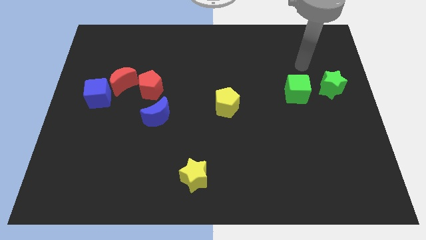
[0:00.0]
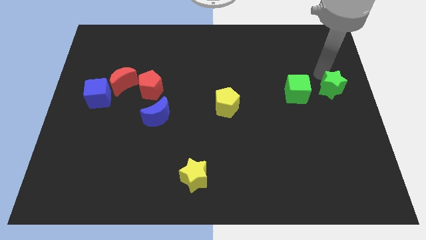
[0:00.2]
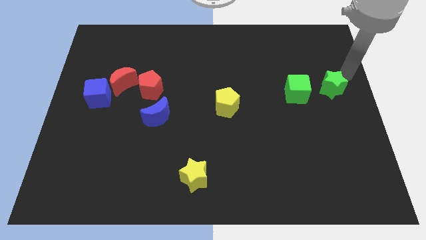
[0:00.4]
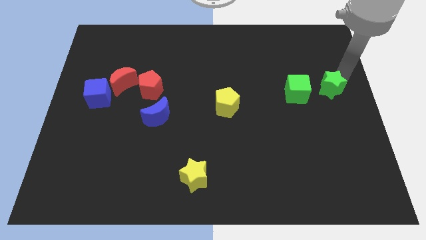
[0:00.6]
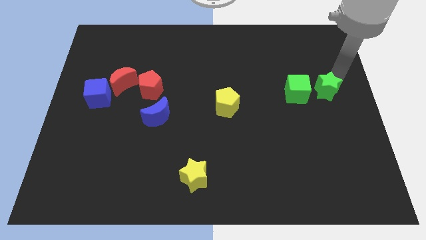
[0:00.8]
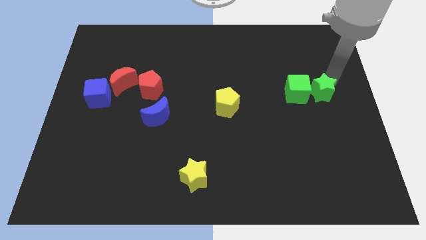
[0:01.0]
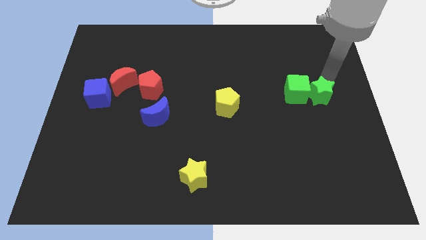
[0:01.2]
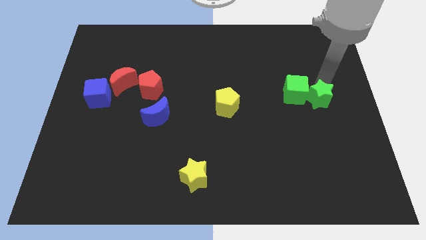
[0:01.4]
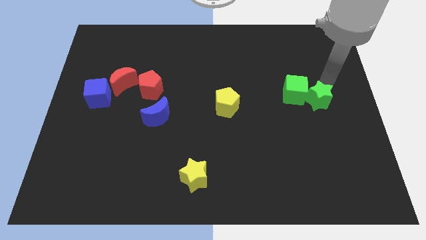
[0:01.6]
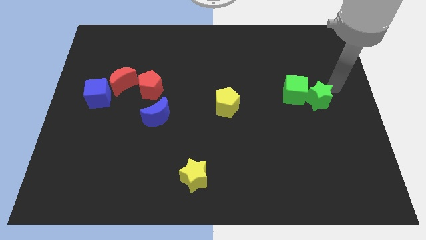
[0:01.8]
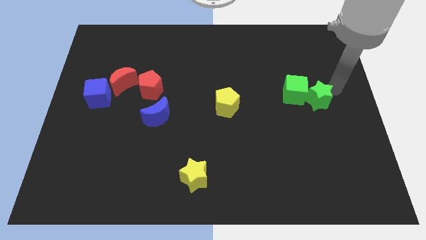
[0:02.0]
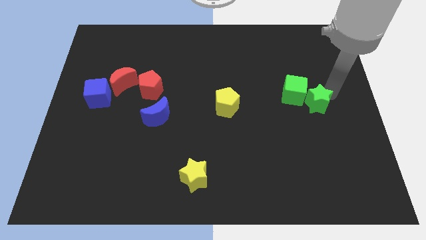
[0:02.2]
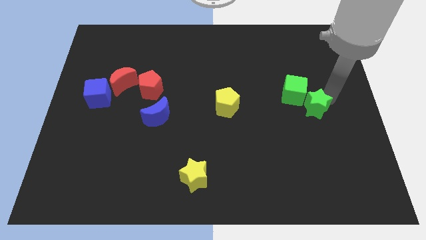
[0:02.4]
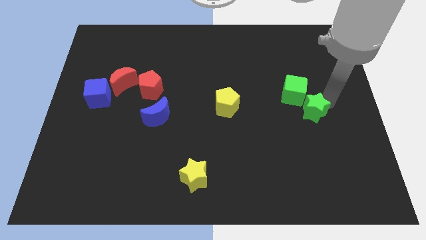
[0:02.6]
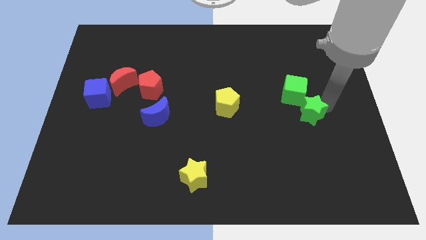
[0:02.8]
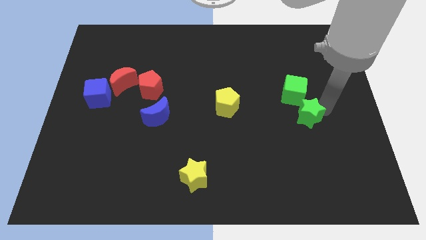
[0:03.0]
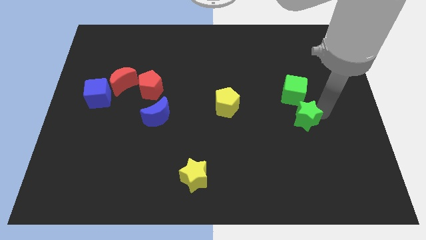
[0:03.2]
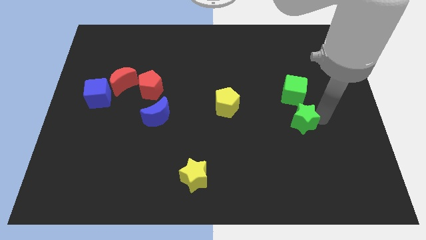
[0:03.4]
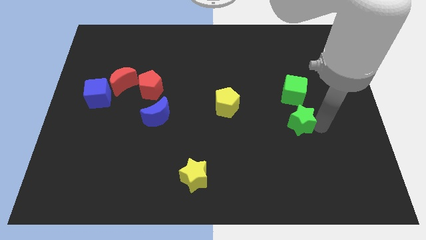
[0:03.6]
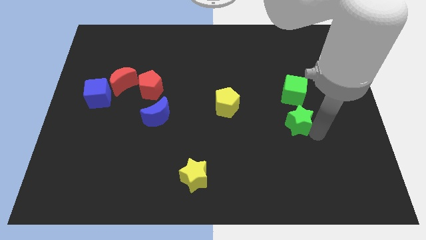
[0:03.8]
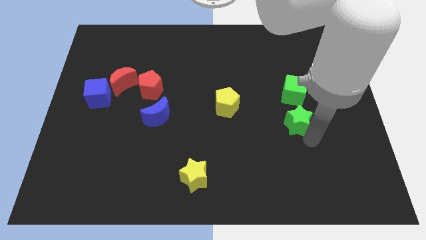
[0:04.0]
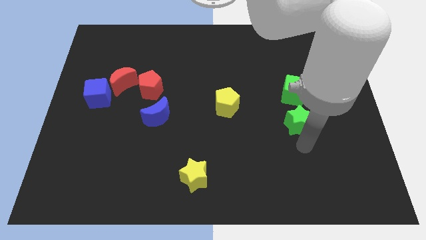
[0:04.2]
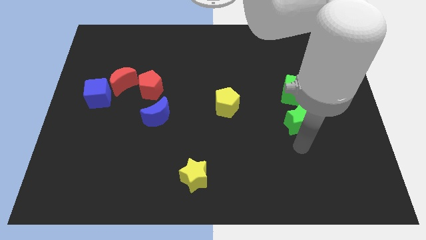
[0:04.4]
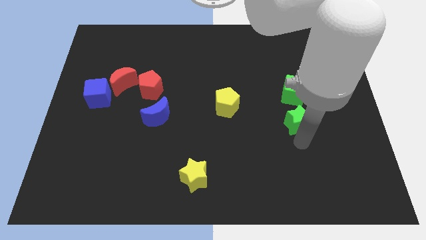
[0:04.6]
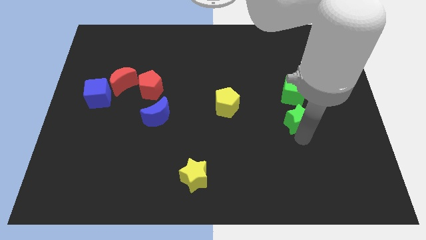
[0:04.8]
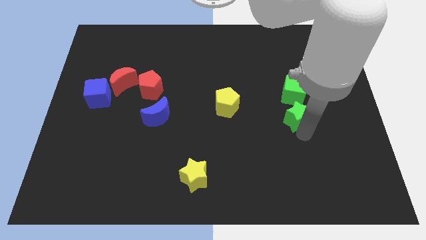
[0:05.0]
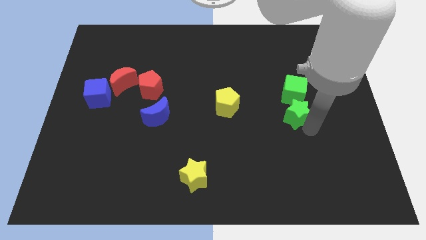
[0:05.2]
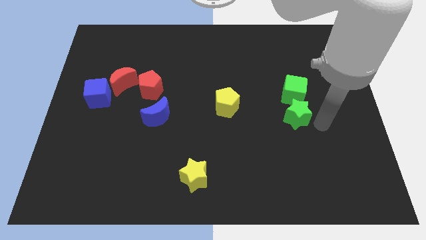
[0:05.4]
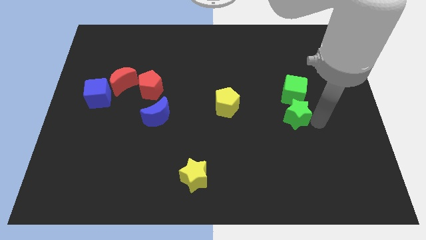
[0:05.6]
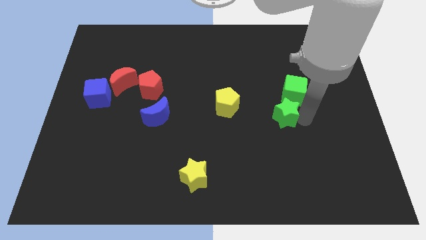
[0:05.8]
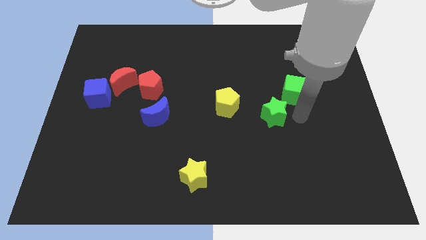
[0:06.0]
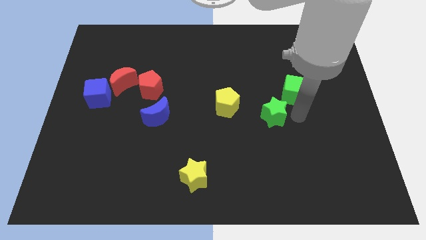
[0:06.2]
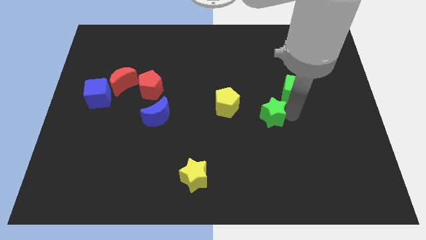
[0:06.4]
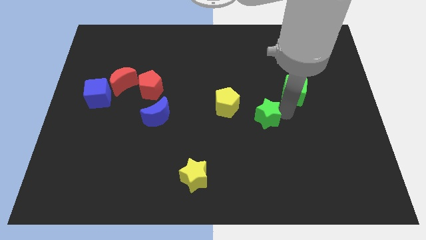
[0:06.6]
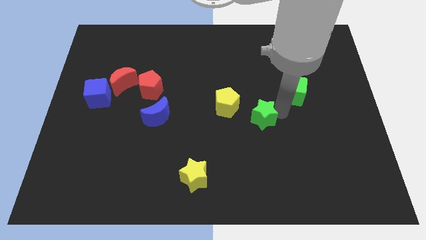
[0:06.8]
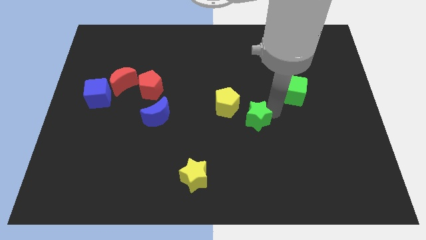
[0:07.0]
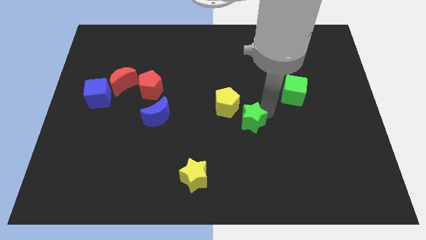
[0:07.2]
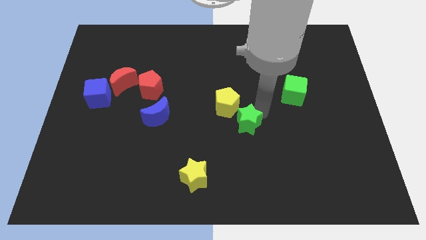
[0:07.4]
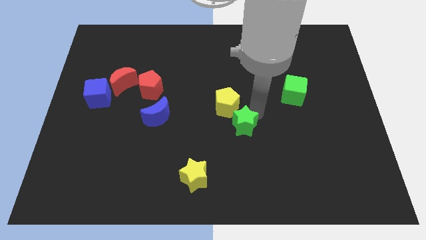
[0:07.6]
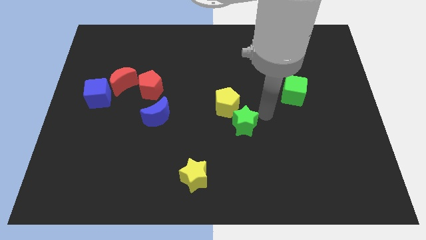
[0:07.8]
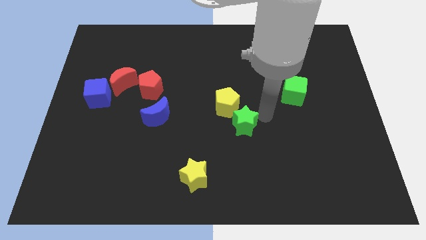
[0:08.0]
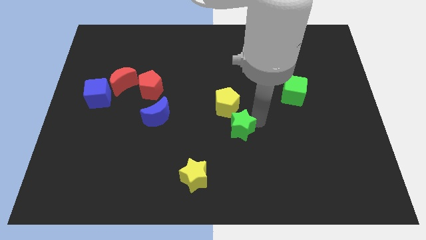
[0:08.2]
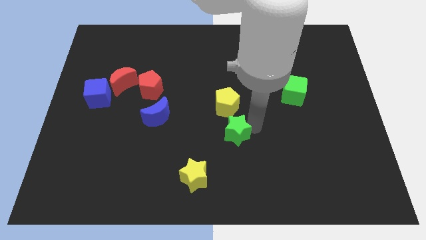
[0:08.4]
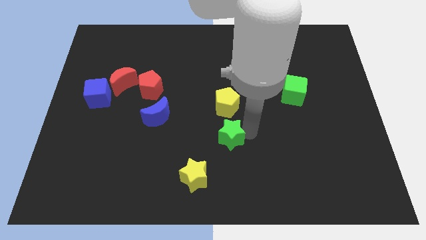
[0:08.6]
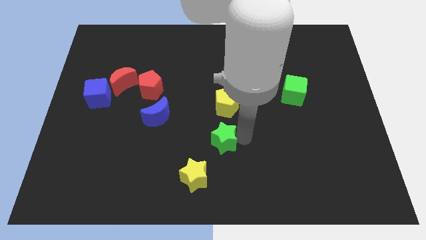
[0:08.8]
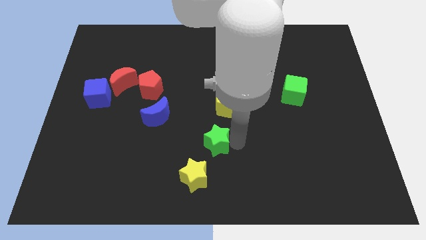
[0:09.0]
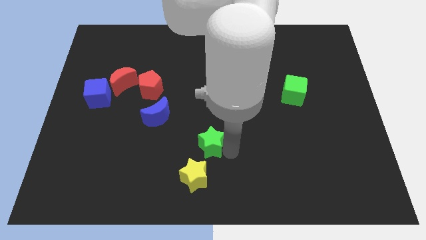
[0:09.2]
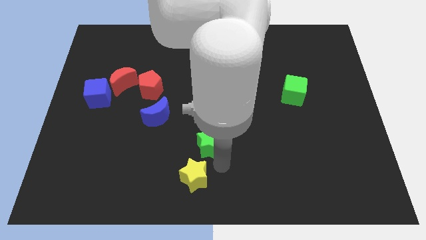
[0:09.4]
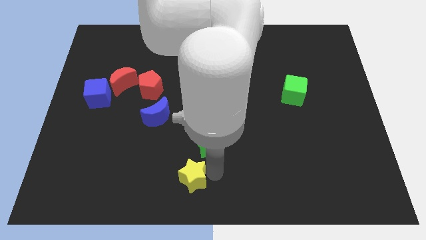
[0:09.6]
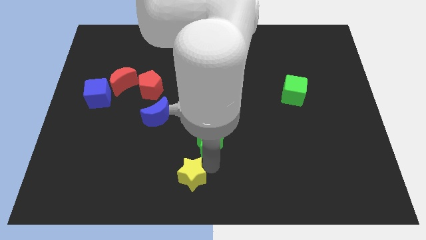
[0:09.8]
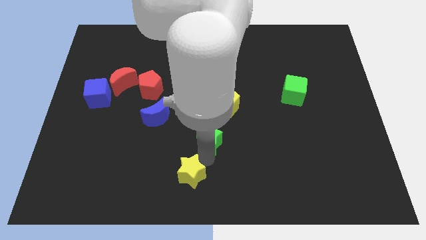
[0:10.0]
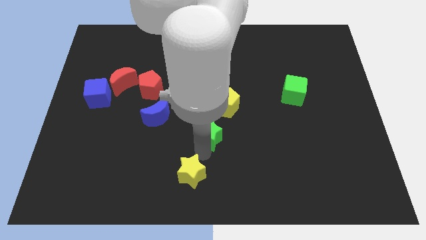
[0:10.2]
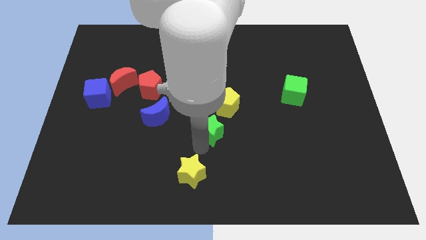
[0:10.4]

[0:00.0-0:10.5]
put the green star right of the blue moon

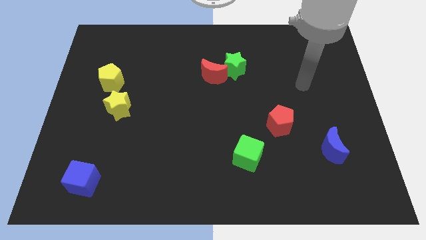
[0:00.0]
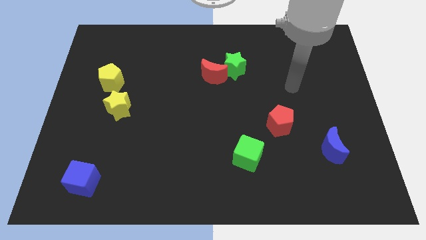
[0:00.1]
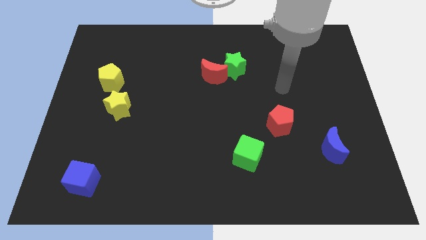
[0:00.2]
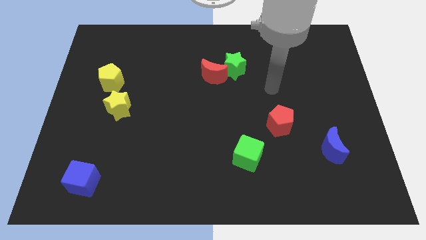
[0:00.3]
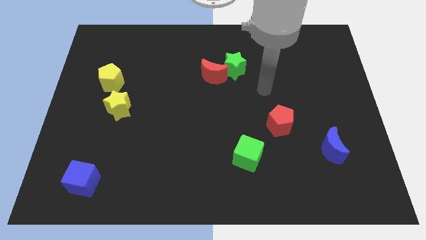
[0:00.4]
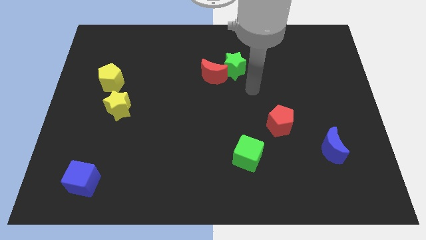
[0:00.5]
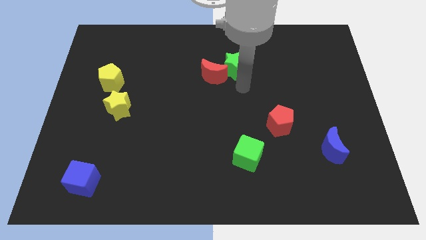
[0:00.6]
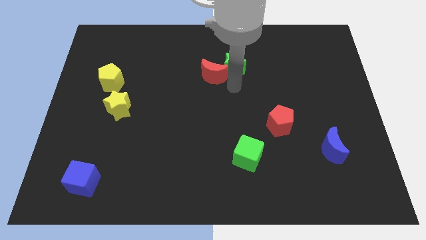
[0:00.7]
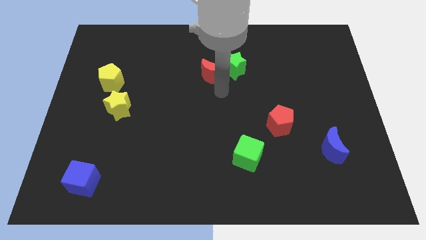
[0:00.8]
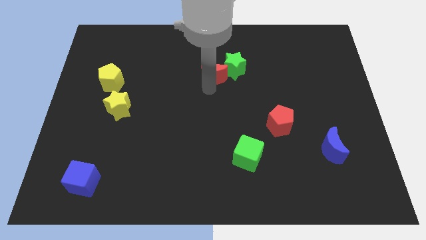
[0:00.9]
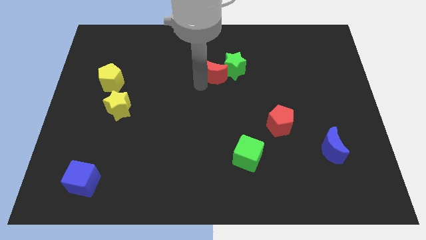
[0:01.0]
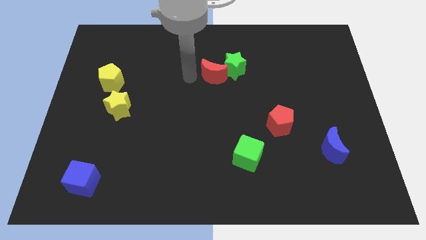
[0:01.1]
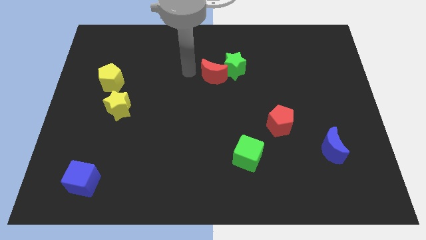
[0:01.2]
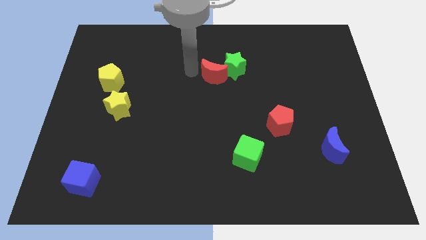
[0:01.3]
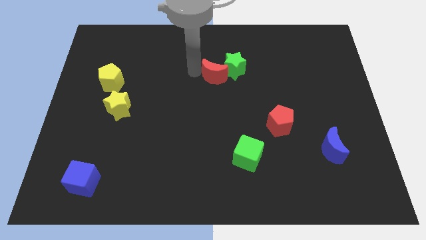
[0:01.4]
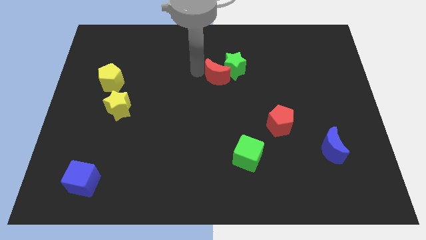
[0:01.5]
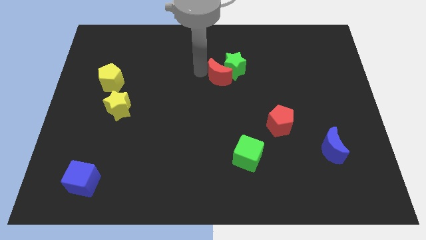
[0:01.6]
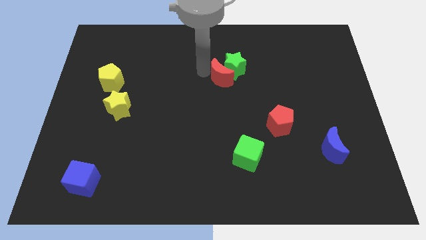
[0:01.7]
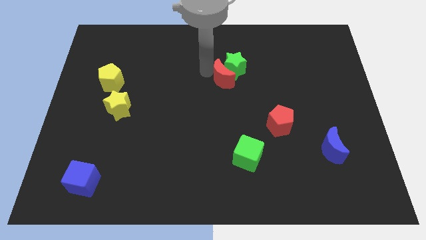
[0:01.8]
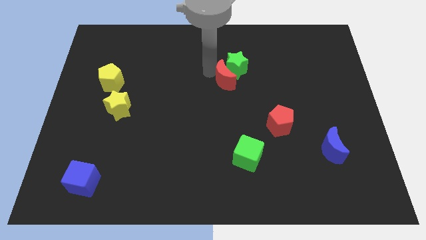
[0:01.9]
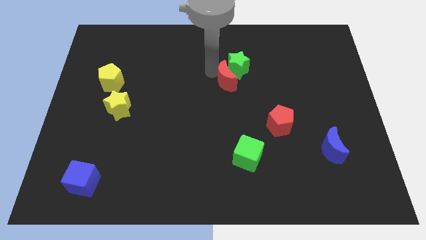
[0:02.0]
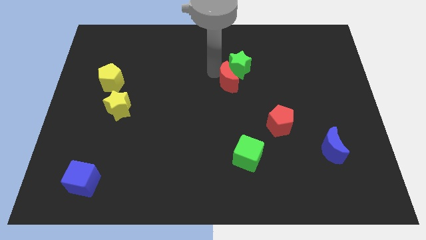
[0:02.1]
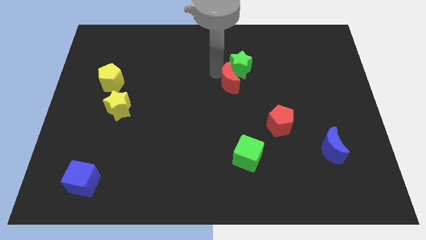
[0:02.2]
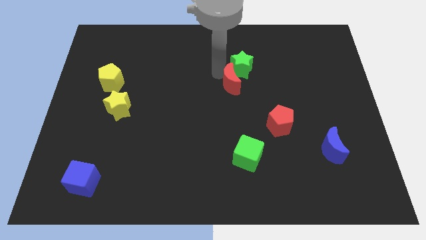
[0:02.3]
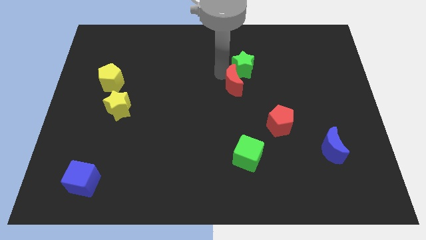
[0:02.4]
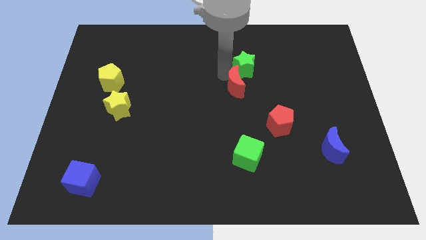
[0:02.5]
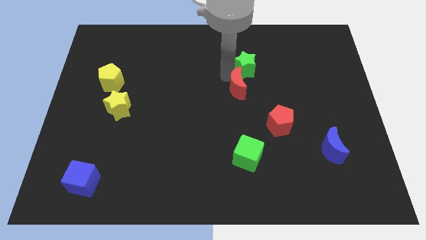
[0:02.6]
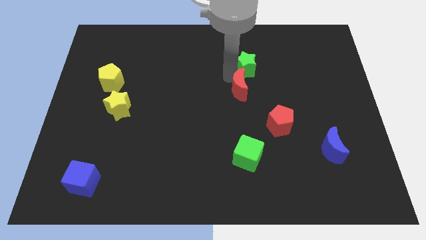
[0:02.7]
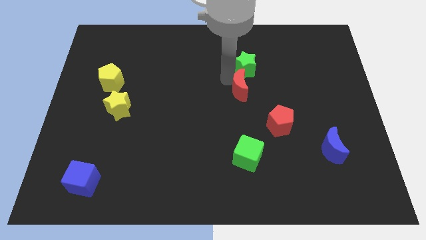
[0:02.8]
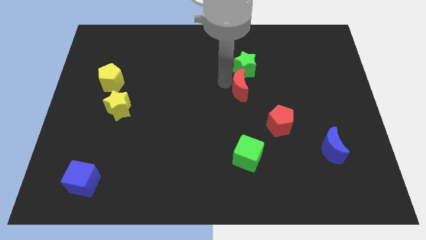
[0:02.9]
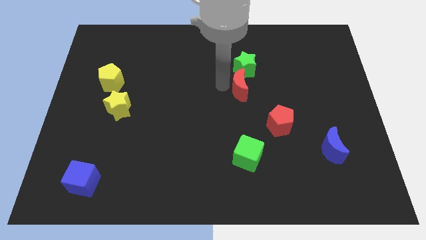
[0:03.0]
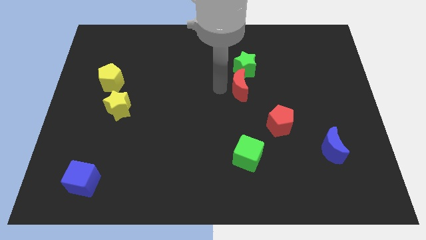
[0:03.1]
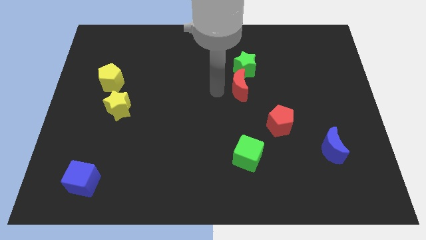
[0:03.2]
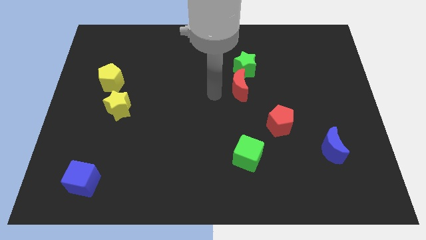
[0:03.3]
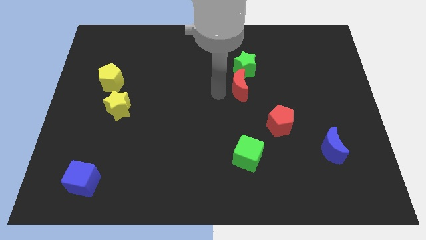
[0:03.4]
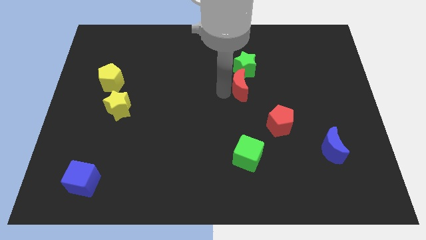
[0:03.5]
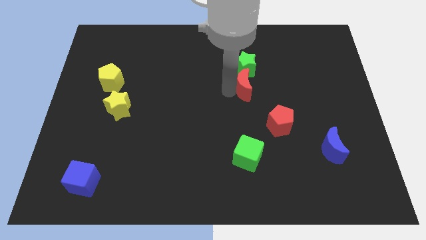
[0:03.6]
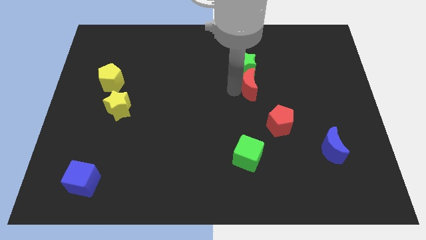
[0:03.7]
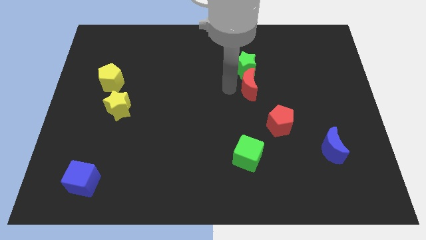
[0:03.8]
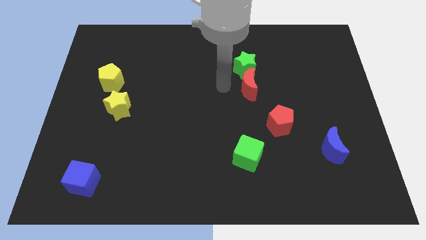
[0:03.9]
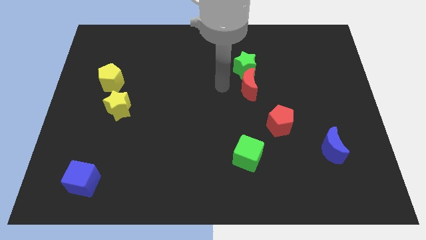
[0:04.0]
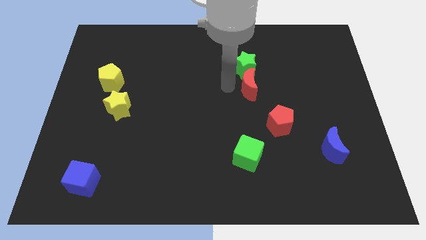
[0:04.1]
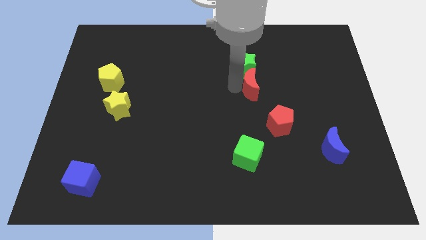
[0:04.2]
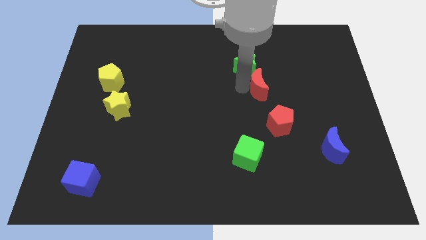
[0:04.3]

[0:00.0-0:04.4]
move the red moon above the red pentagon
